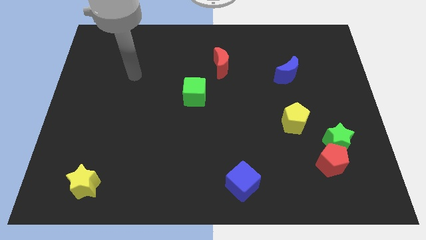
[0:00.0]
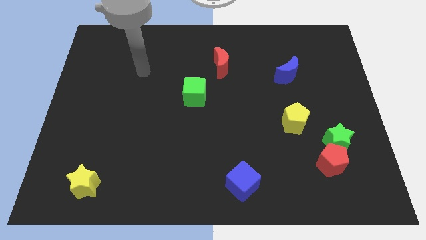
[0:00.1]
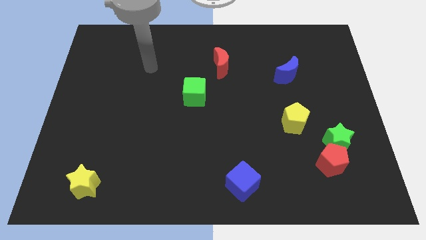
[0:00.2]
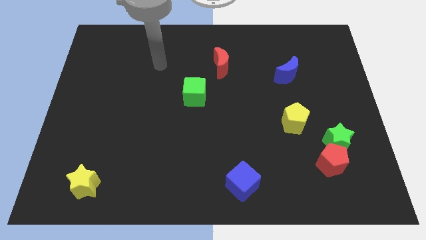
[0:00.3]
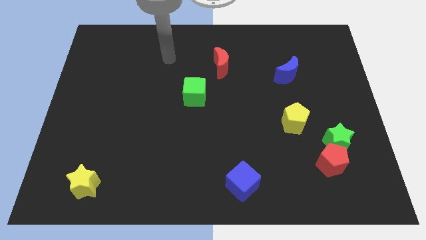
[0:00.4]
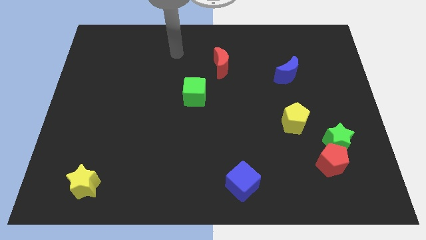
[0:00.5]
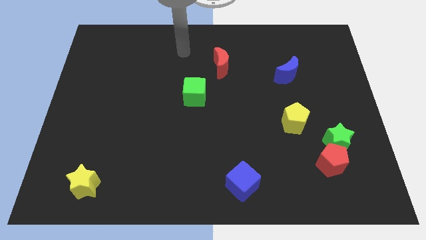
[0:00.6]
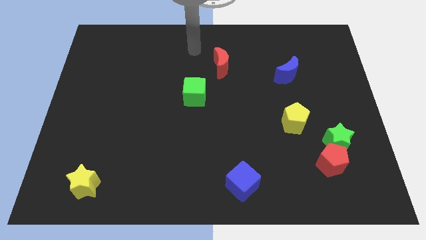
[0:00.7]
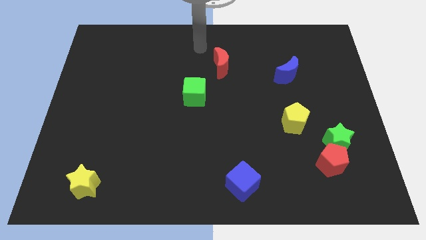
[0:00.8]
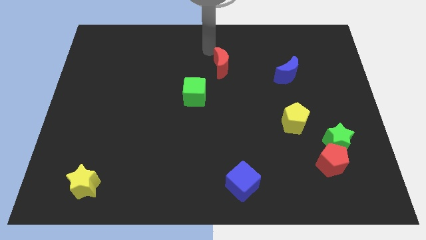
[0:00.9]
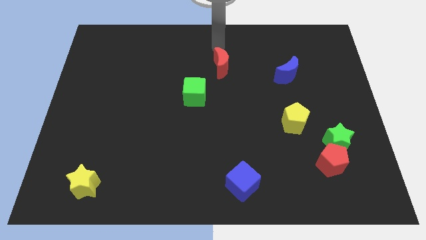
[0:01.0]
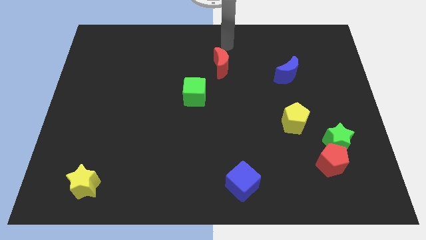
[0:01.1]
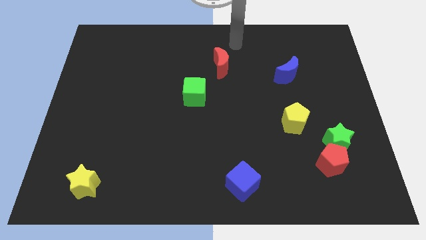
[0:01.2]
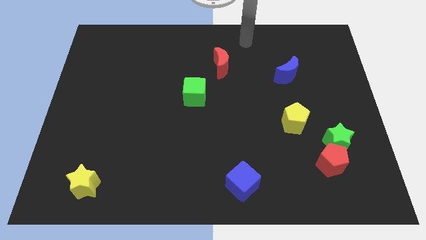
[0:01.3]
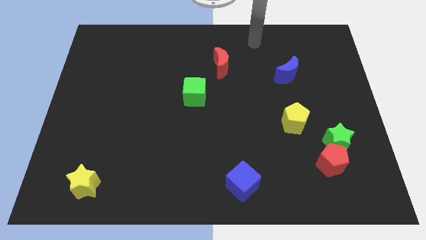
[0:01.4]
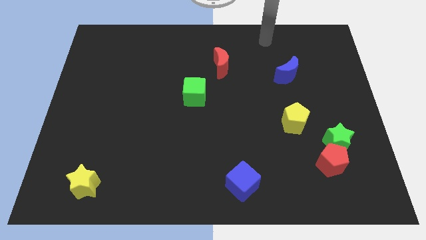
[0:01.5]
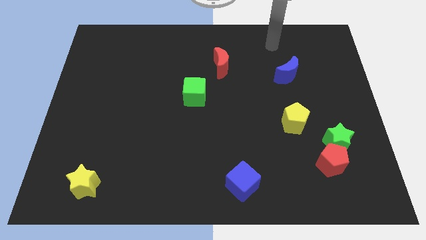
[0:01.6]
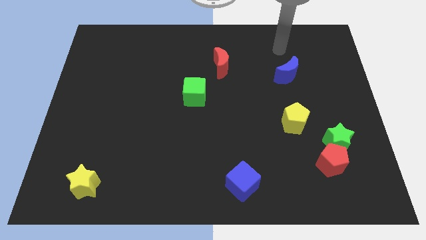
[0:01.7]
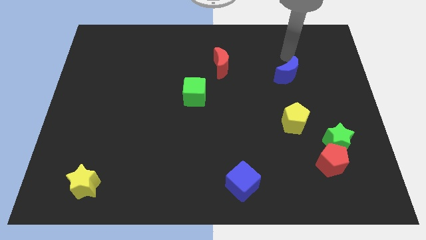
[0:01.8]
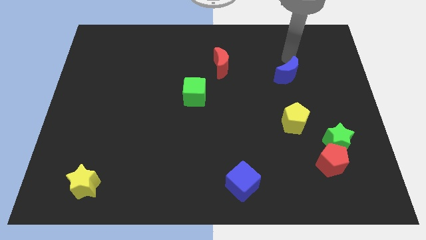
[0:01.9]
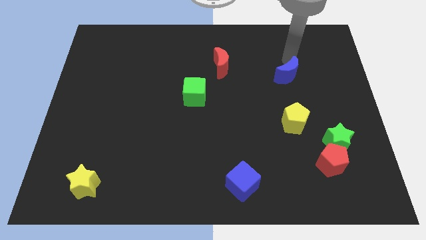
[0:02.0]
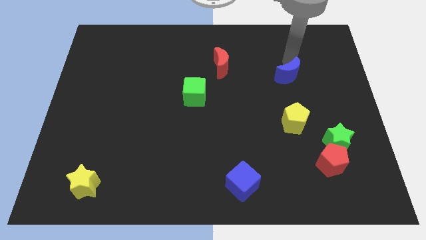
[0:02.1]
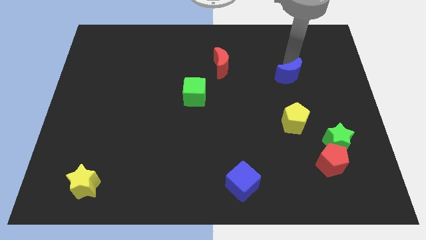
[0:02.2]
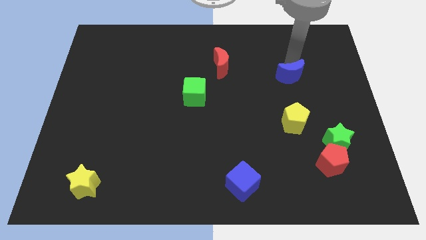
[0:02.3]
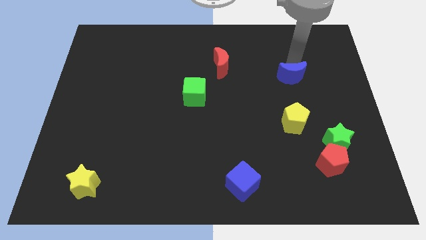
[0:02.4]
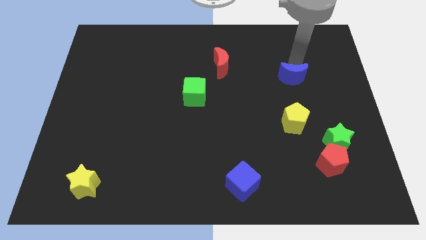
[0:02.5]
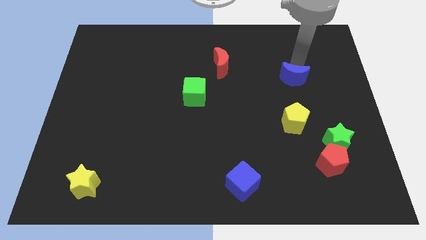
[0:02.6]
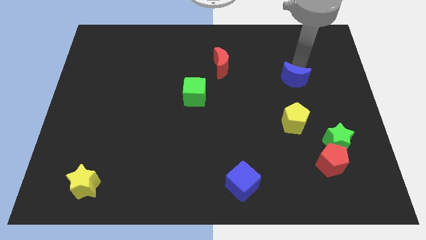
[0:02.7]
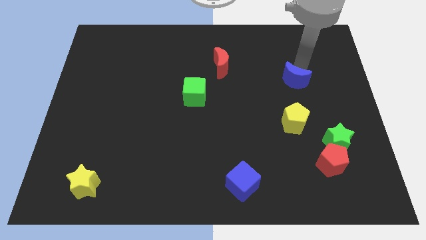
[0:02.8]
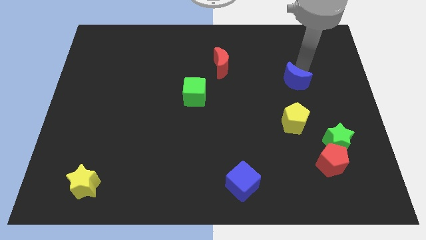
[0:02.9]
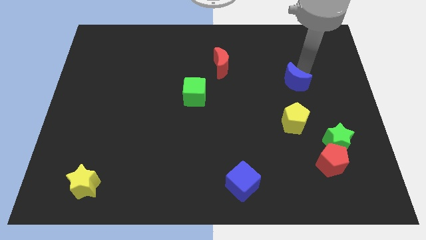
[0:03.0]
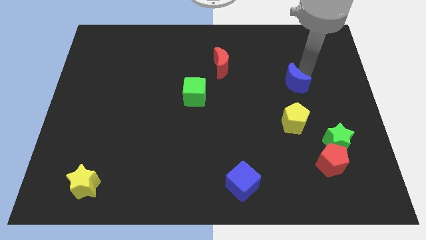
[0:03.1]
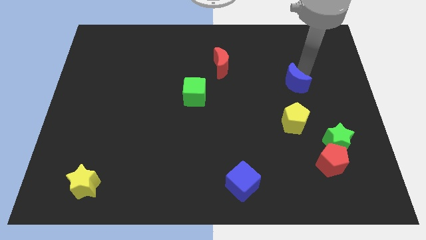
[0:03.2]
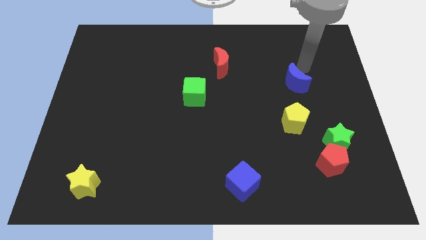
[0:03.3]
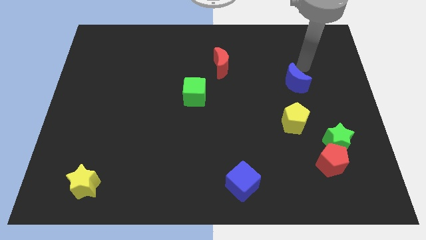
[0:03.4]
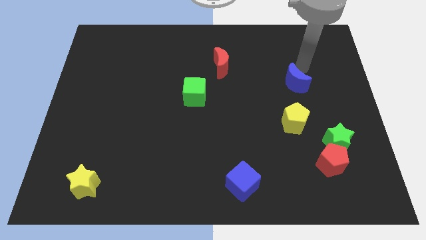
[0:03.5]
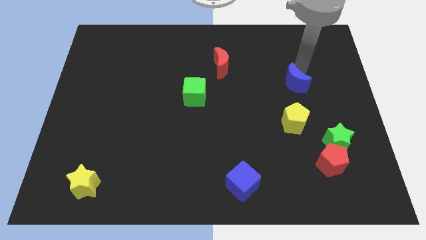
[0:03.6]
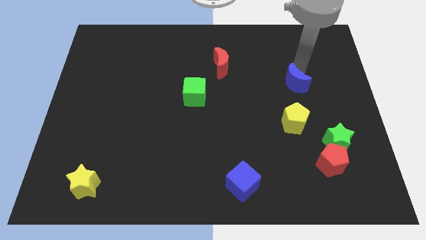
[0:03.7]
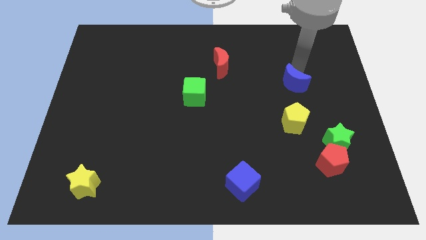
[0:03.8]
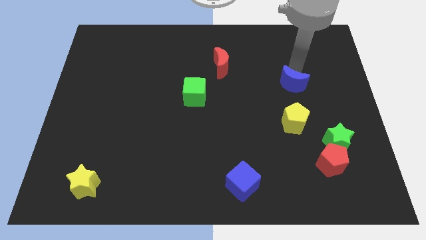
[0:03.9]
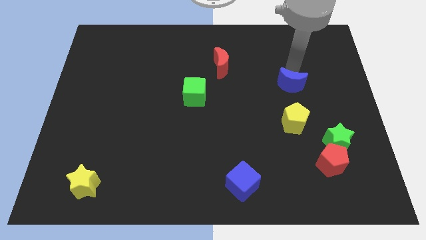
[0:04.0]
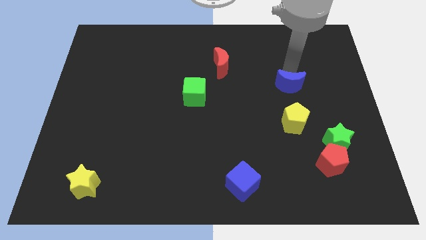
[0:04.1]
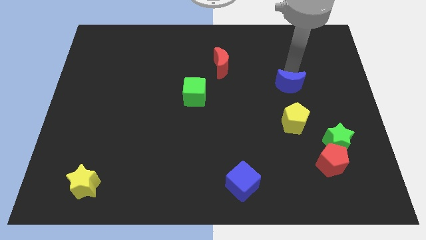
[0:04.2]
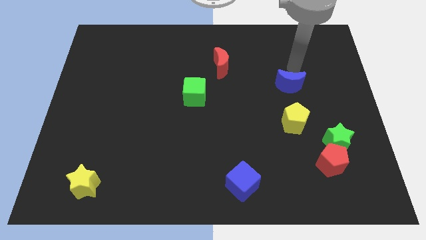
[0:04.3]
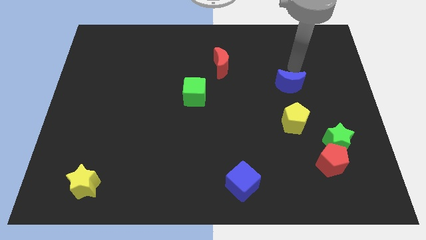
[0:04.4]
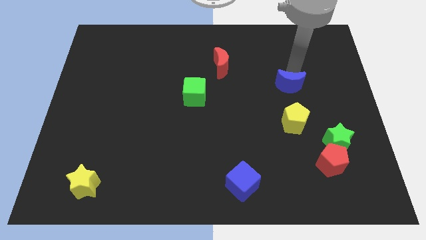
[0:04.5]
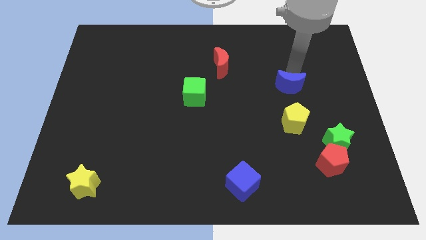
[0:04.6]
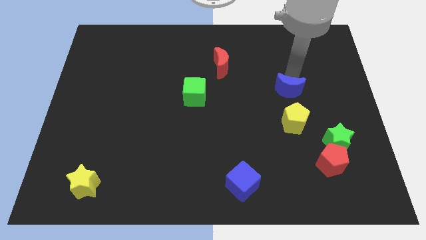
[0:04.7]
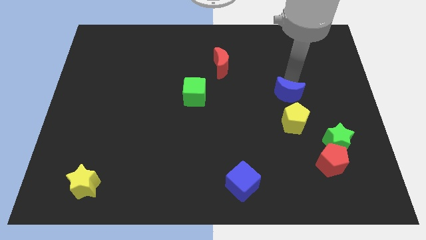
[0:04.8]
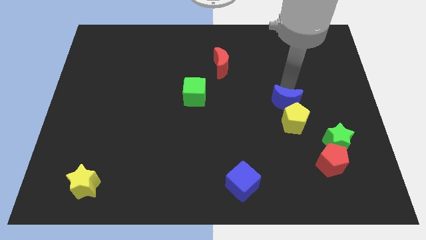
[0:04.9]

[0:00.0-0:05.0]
slide the blue moon towards the yellow pentagon

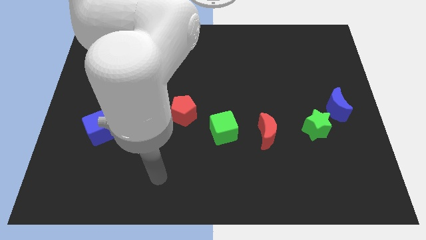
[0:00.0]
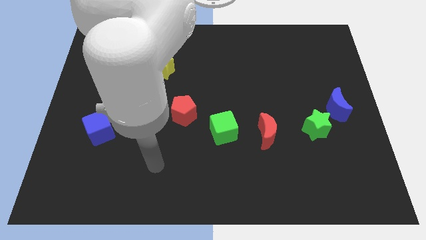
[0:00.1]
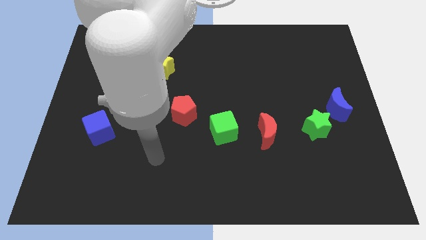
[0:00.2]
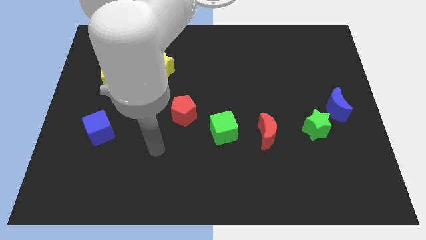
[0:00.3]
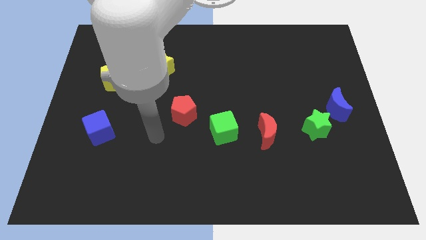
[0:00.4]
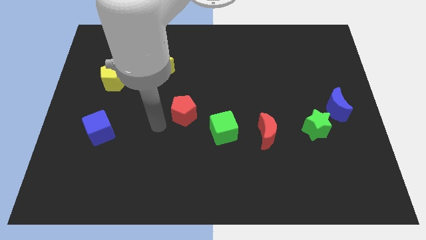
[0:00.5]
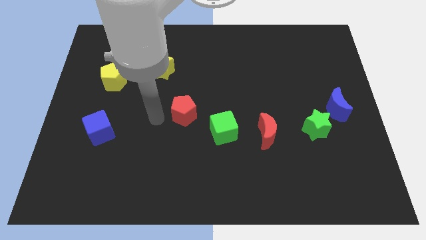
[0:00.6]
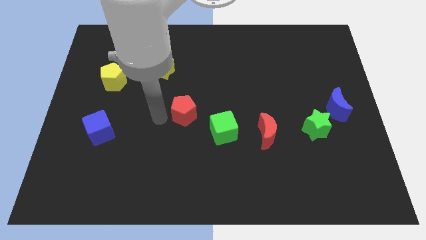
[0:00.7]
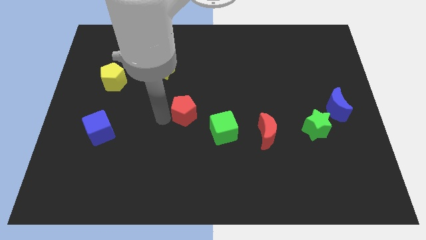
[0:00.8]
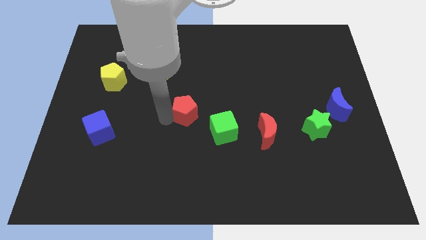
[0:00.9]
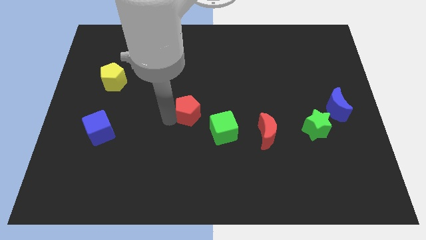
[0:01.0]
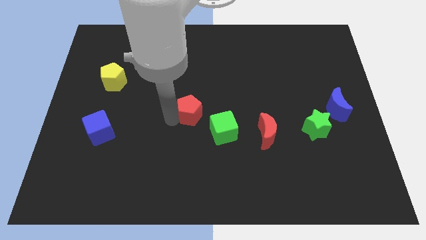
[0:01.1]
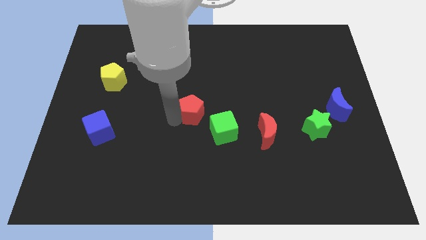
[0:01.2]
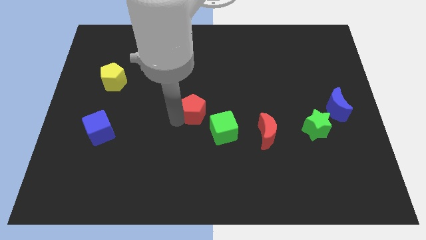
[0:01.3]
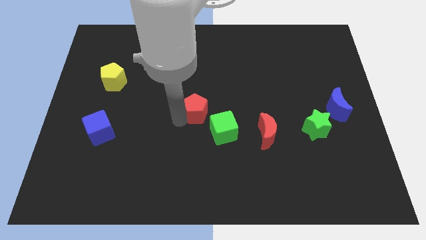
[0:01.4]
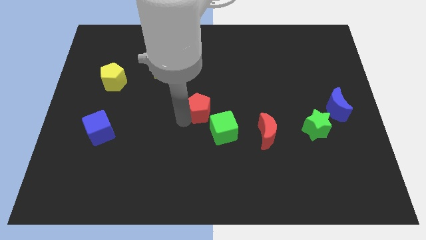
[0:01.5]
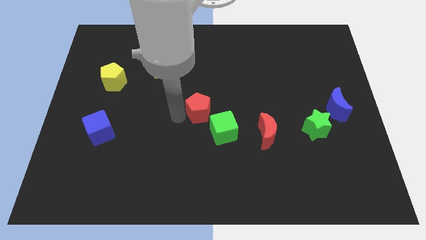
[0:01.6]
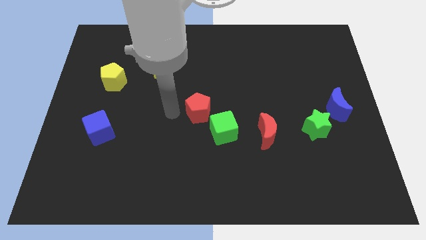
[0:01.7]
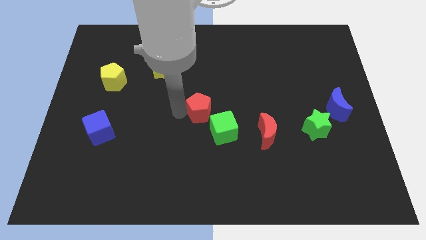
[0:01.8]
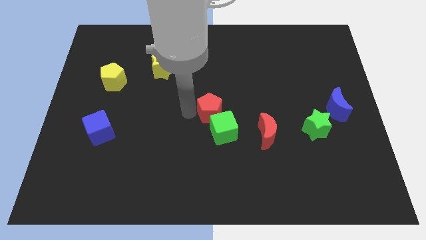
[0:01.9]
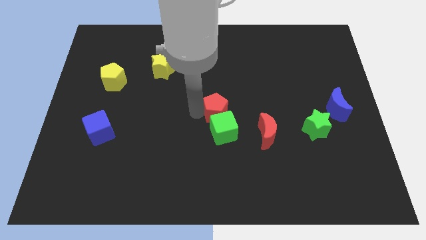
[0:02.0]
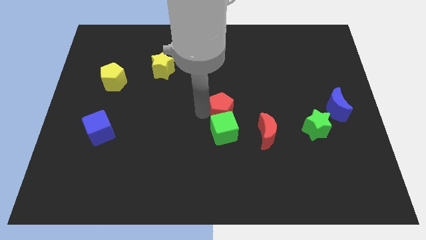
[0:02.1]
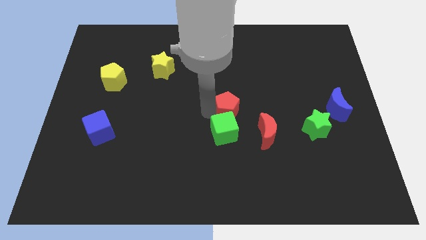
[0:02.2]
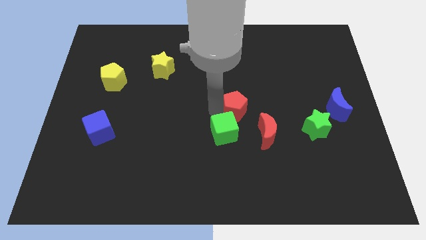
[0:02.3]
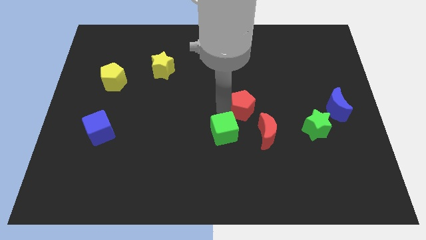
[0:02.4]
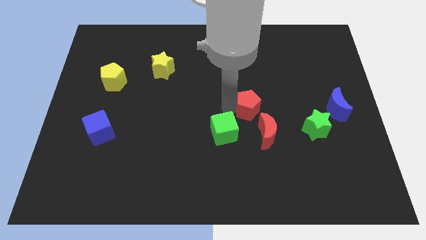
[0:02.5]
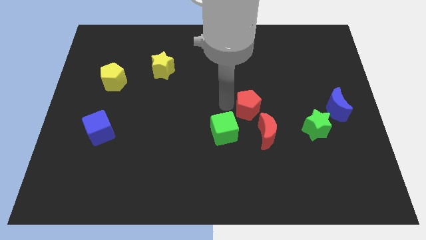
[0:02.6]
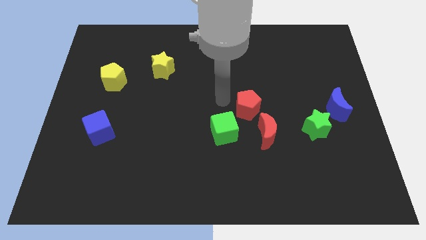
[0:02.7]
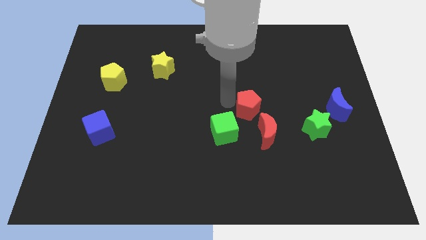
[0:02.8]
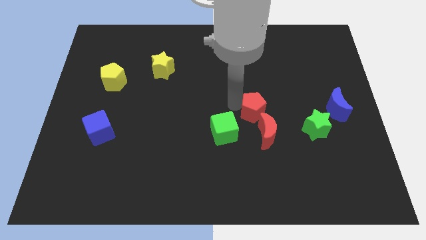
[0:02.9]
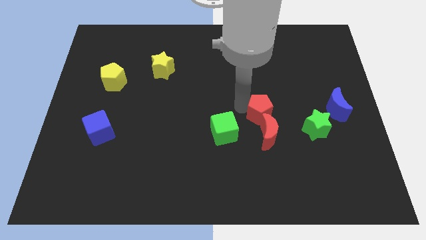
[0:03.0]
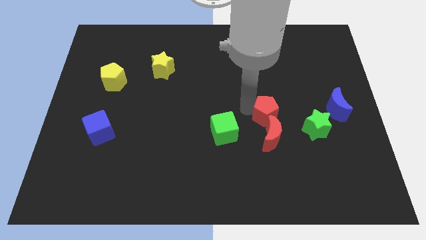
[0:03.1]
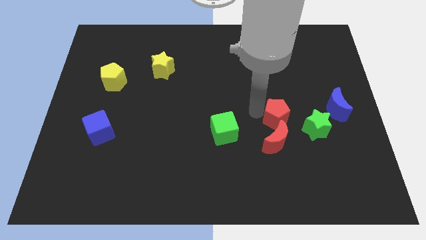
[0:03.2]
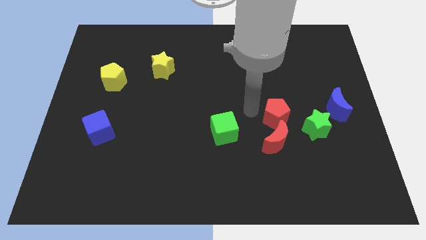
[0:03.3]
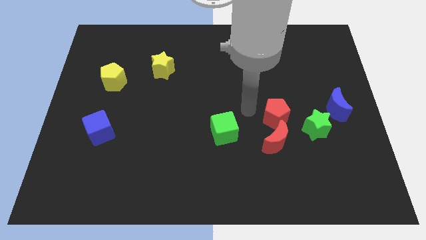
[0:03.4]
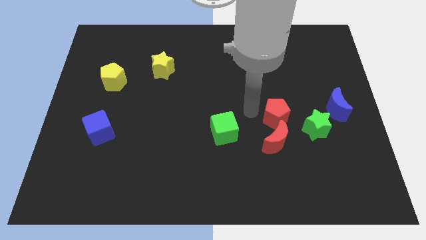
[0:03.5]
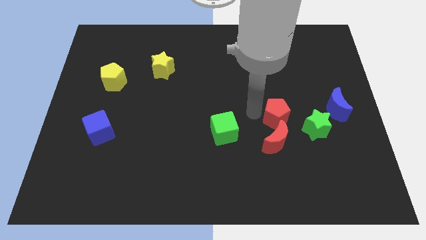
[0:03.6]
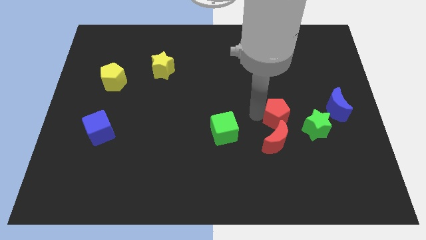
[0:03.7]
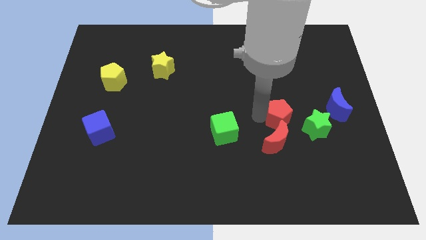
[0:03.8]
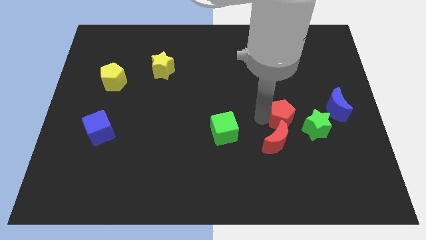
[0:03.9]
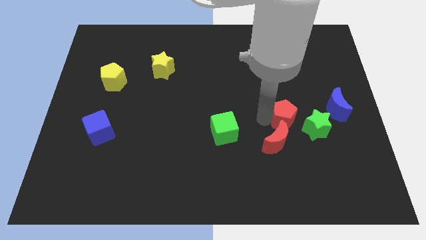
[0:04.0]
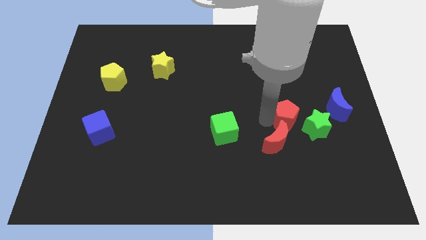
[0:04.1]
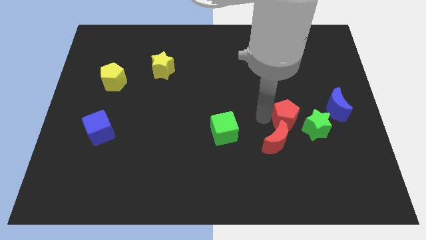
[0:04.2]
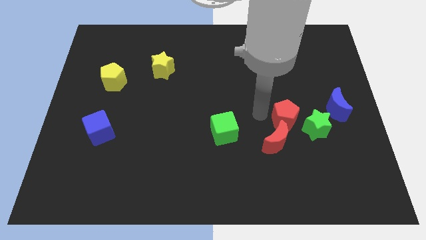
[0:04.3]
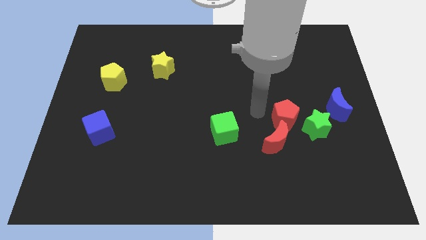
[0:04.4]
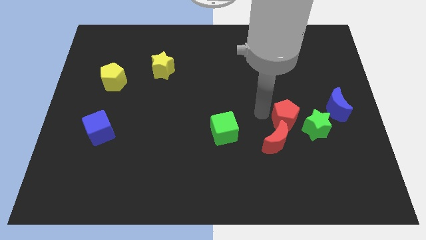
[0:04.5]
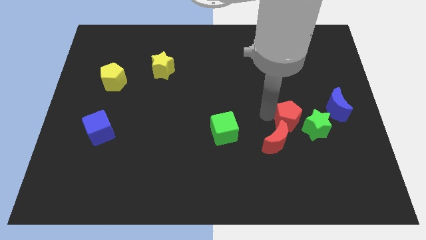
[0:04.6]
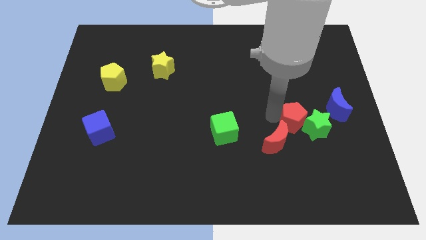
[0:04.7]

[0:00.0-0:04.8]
put the red pentagon towards the green star
